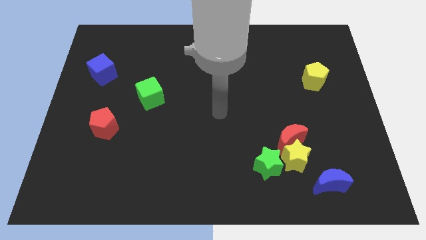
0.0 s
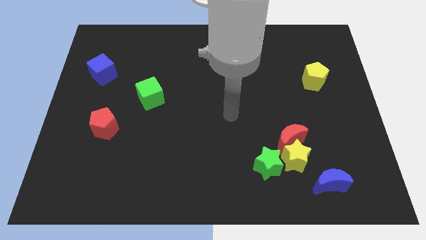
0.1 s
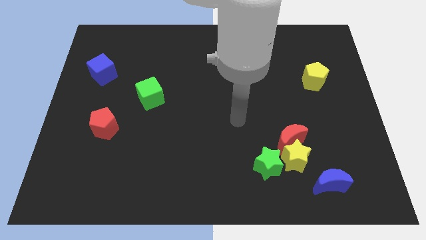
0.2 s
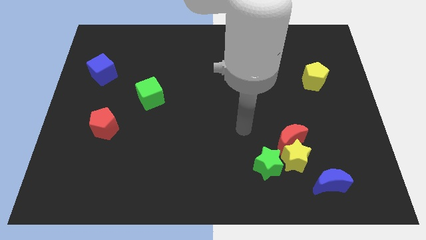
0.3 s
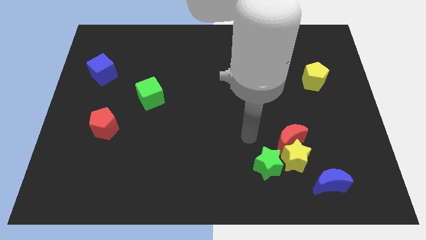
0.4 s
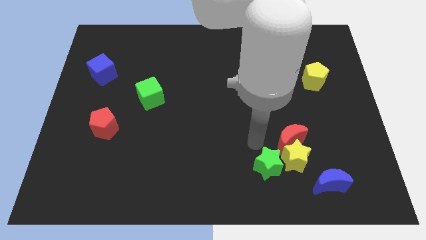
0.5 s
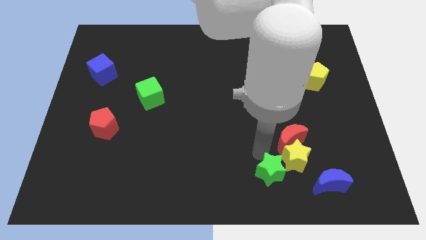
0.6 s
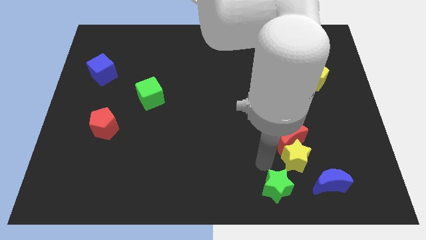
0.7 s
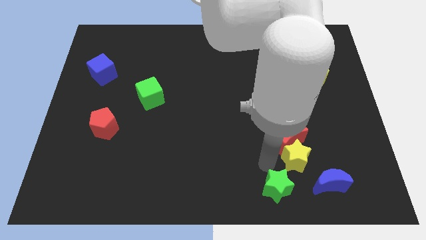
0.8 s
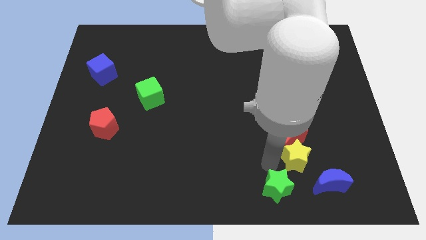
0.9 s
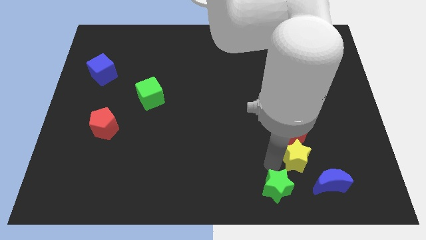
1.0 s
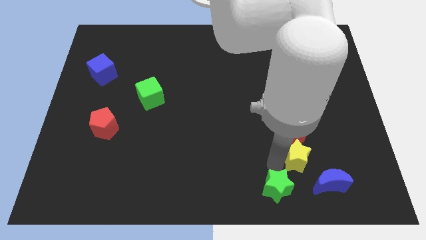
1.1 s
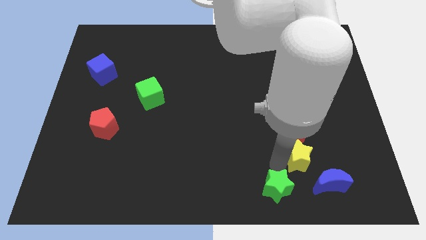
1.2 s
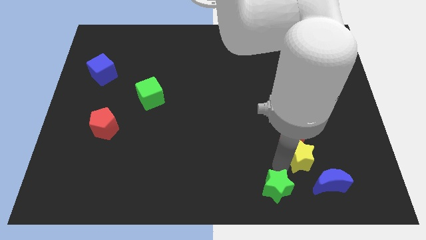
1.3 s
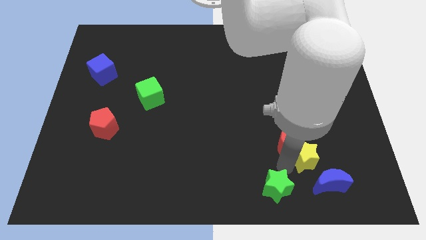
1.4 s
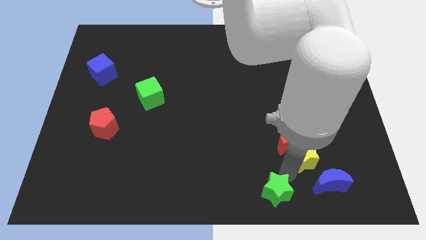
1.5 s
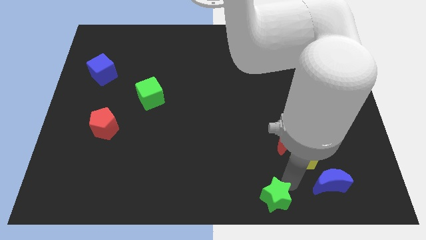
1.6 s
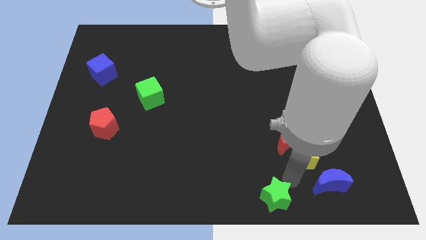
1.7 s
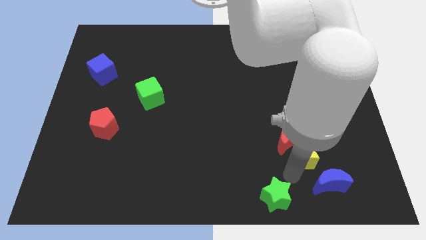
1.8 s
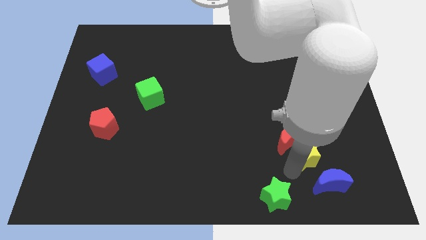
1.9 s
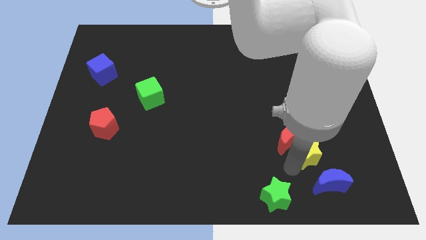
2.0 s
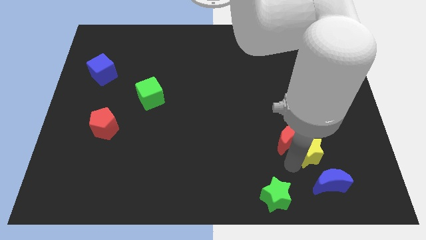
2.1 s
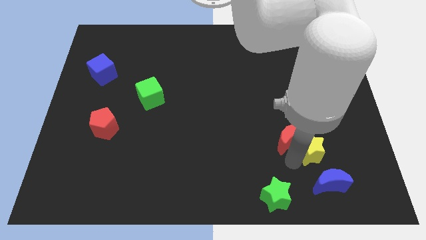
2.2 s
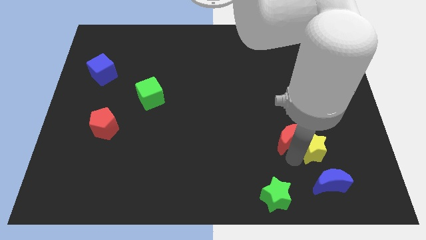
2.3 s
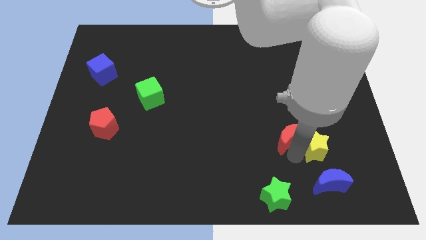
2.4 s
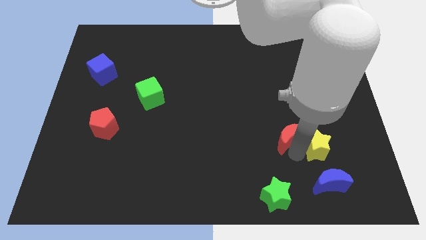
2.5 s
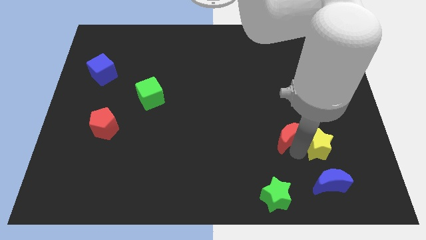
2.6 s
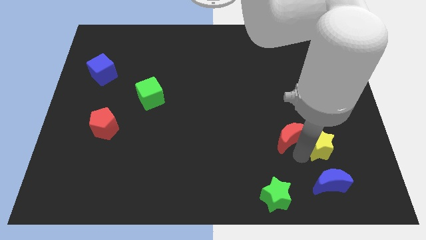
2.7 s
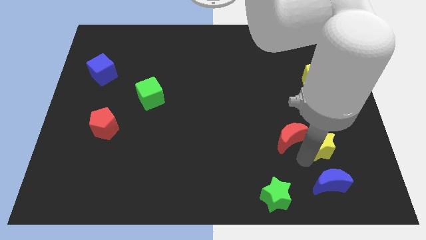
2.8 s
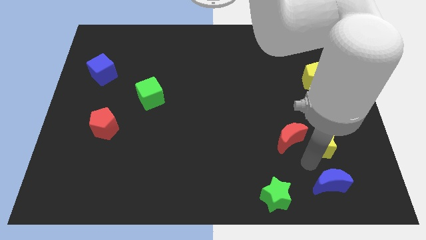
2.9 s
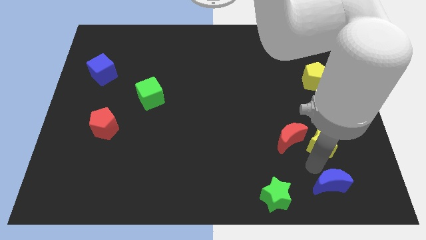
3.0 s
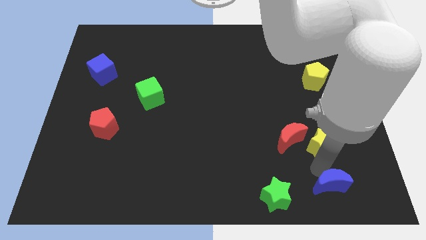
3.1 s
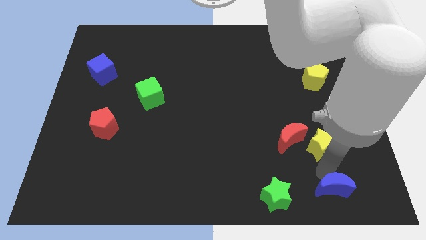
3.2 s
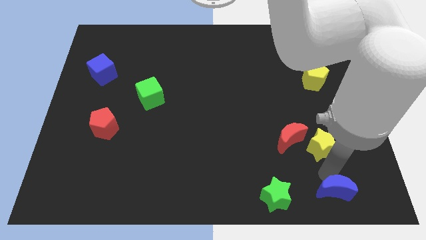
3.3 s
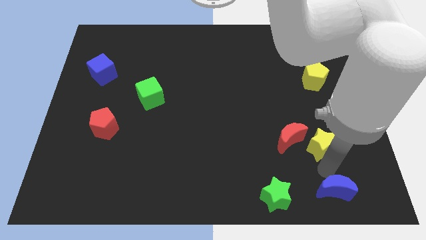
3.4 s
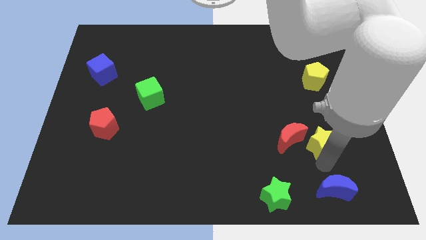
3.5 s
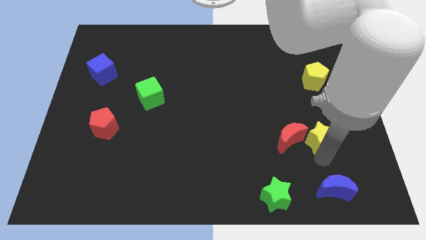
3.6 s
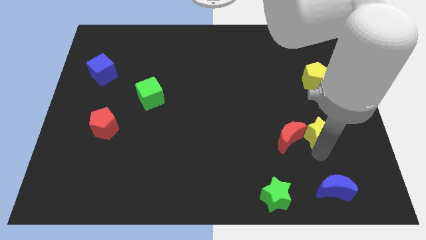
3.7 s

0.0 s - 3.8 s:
move the yellow star away from the red moon, green star, and blue moon

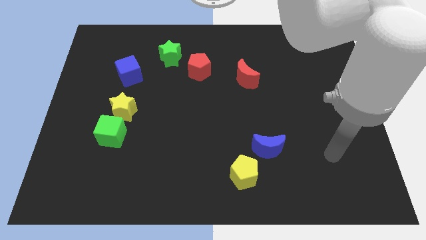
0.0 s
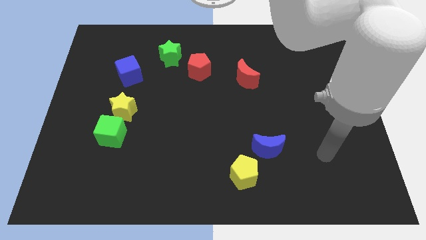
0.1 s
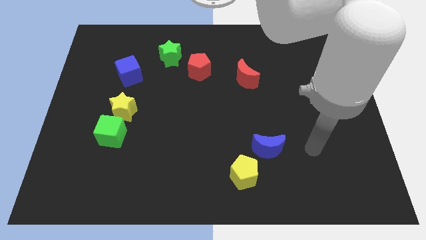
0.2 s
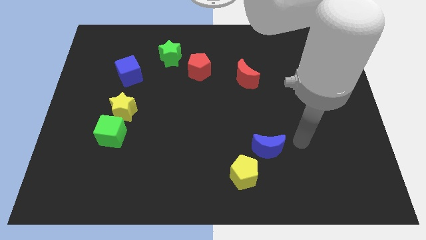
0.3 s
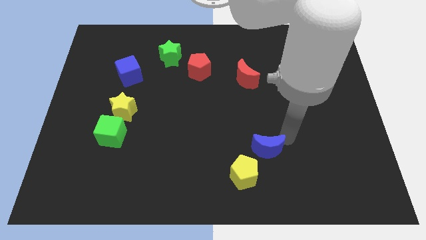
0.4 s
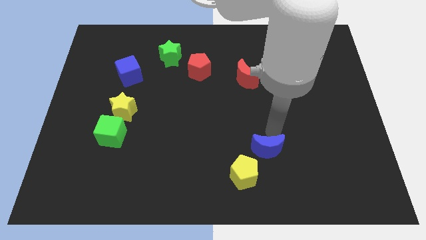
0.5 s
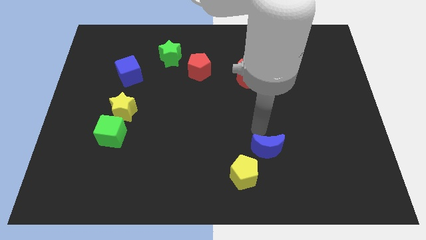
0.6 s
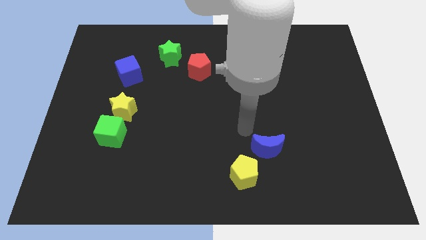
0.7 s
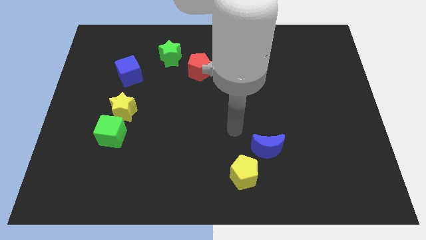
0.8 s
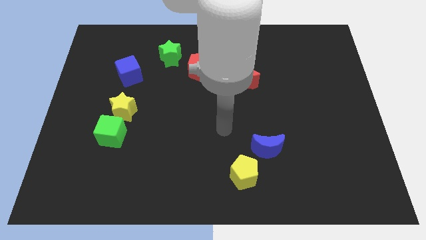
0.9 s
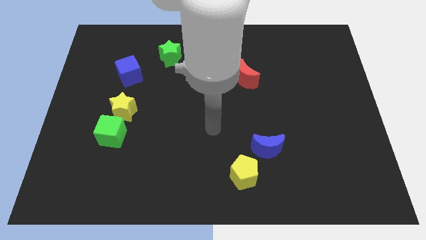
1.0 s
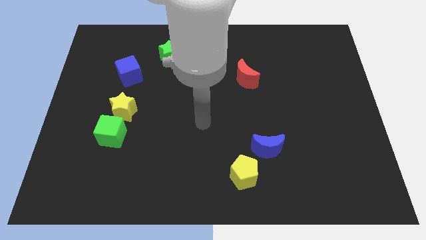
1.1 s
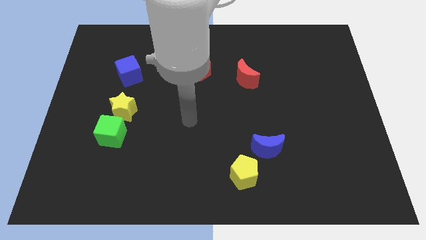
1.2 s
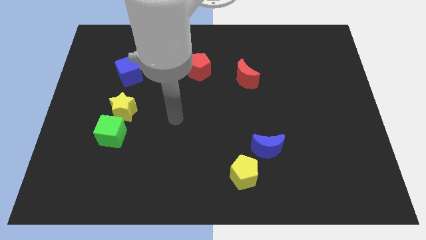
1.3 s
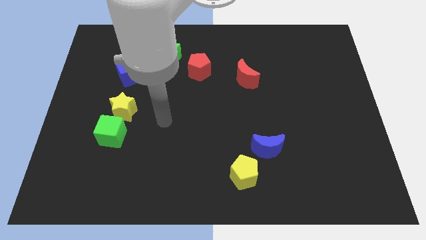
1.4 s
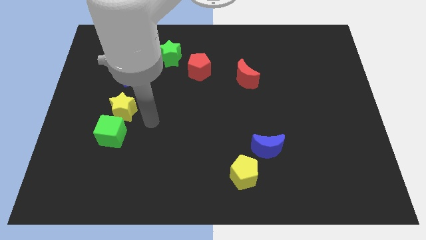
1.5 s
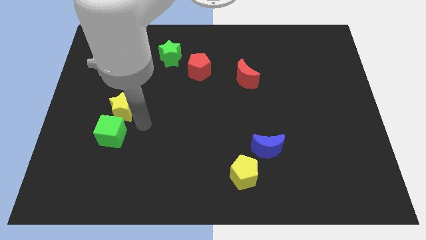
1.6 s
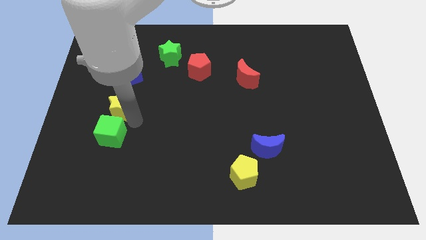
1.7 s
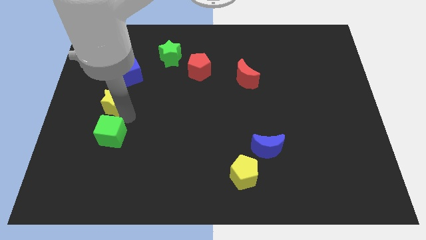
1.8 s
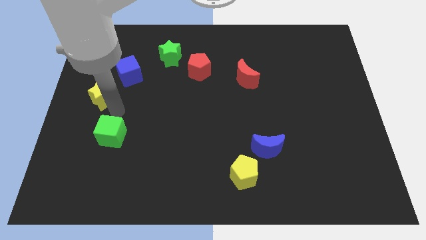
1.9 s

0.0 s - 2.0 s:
pull the green cube apart from the yellow star

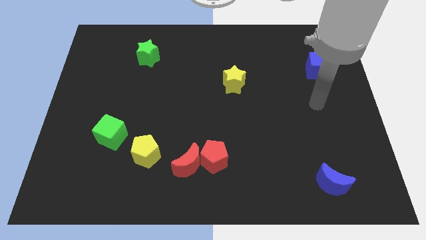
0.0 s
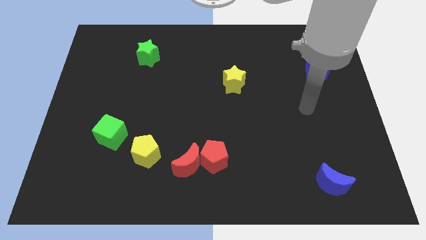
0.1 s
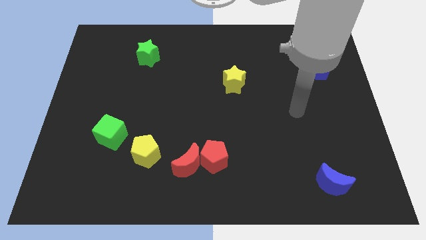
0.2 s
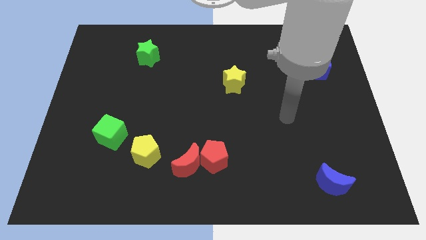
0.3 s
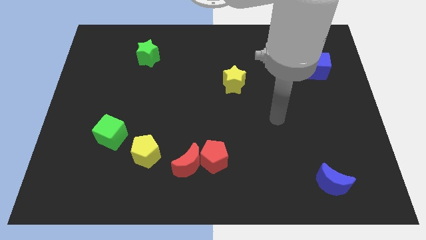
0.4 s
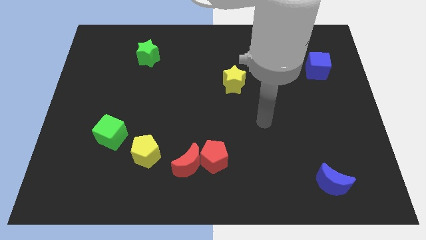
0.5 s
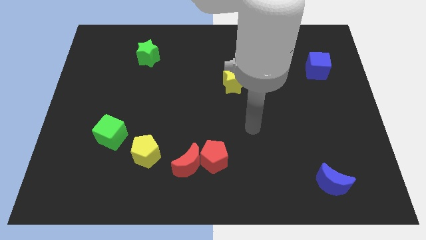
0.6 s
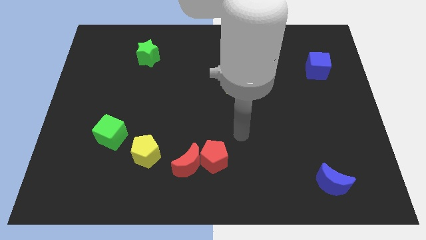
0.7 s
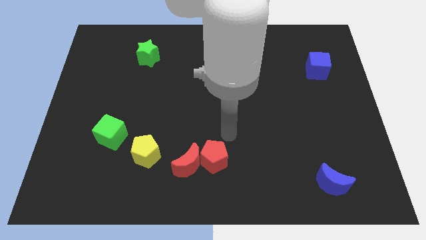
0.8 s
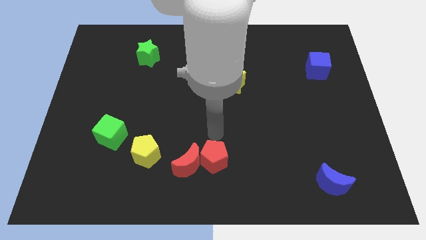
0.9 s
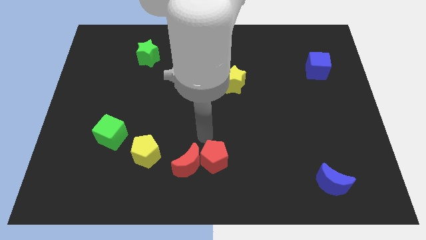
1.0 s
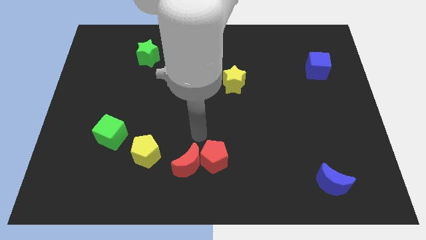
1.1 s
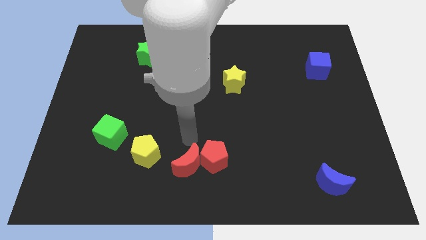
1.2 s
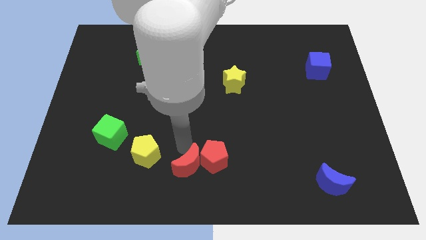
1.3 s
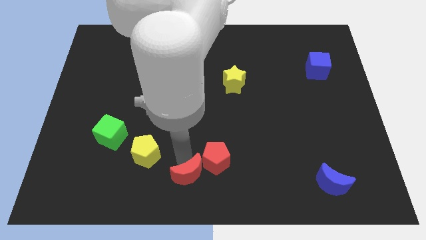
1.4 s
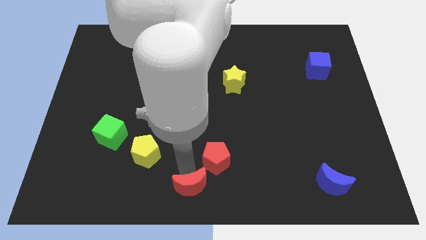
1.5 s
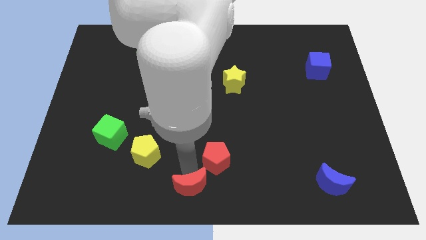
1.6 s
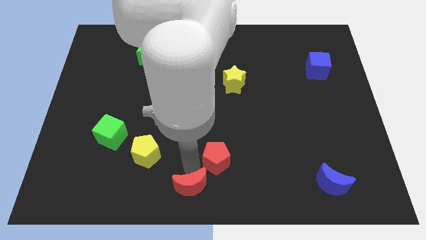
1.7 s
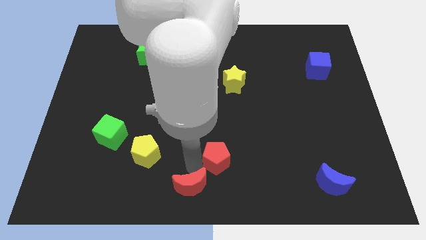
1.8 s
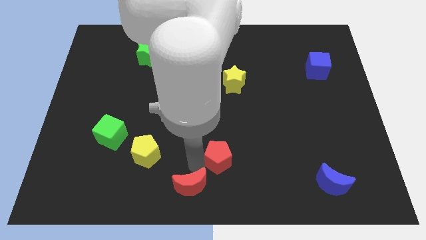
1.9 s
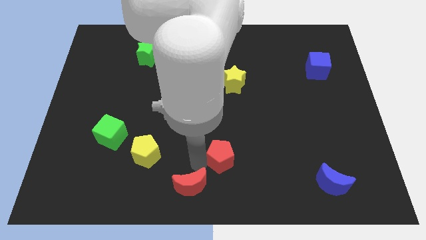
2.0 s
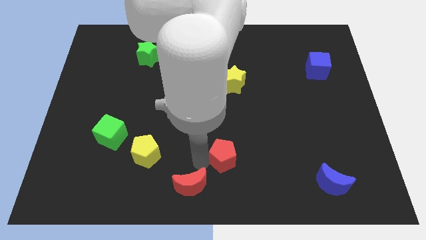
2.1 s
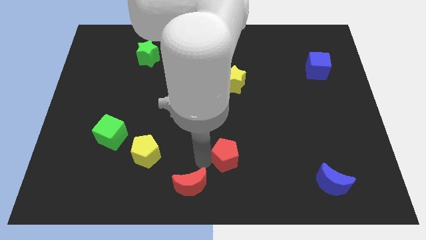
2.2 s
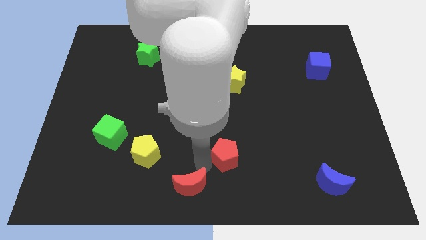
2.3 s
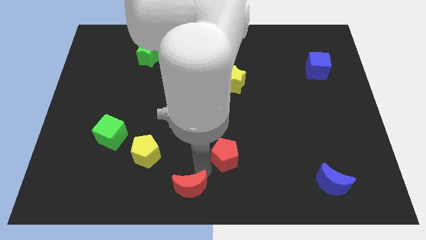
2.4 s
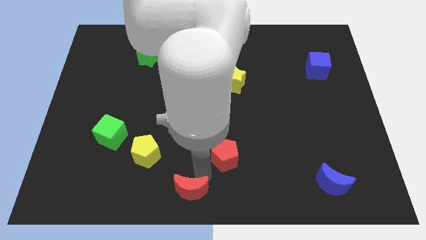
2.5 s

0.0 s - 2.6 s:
separate the red pentagon from the red moon

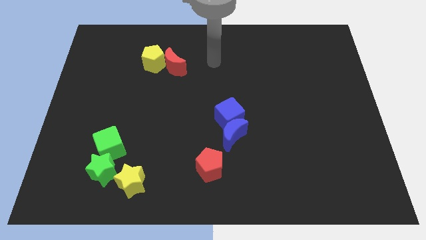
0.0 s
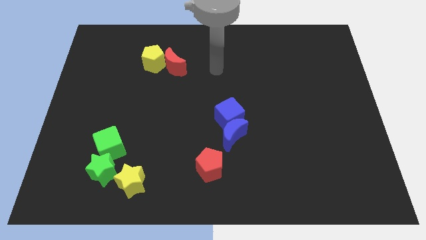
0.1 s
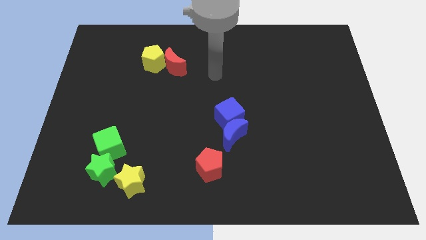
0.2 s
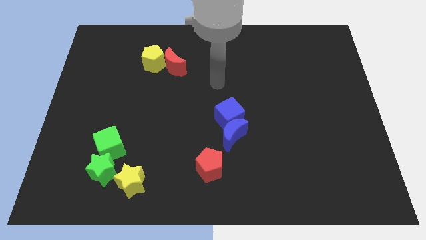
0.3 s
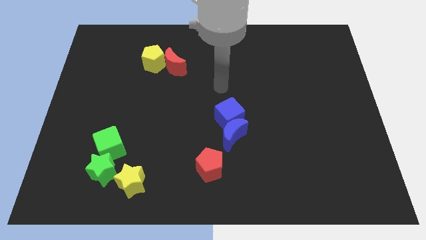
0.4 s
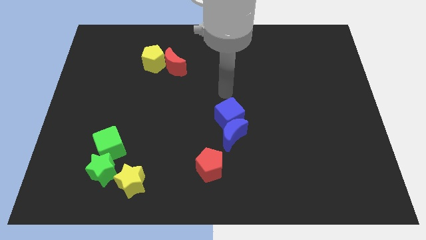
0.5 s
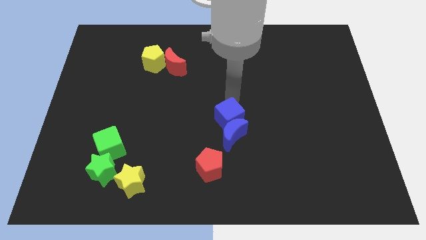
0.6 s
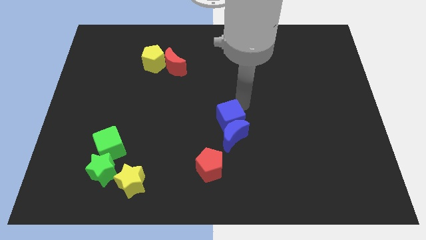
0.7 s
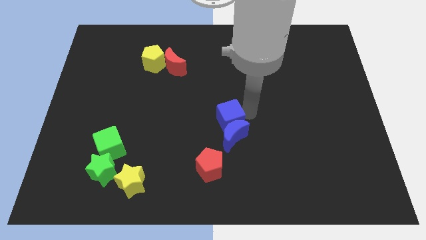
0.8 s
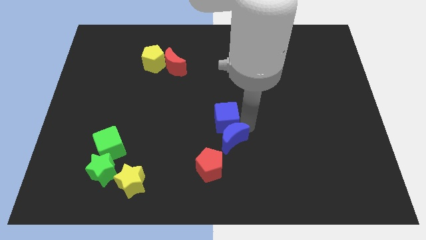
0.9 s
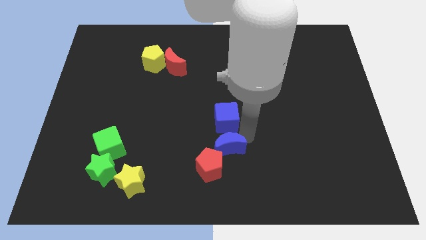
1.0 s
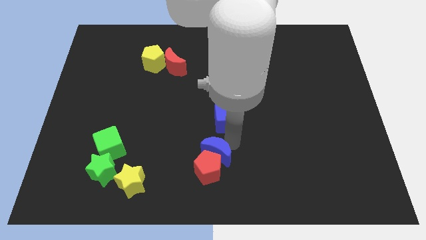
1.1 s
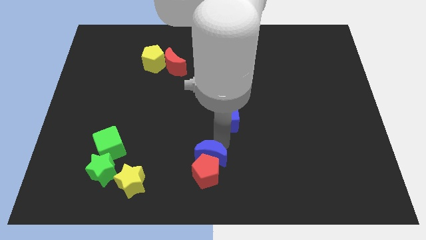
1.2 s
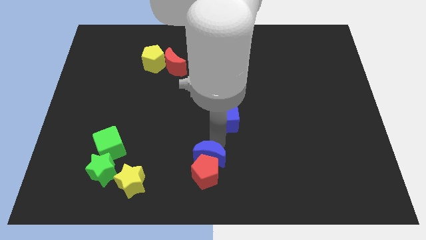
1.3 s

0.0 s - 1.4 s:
separate the blue cube from the blue moon
